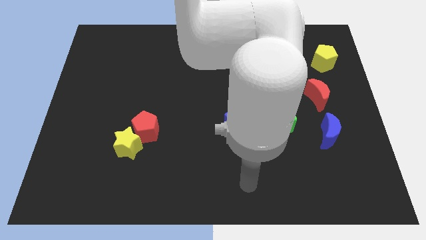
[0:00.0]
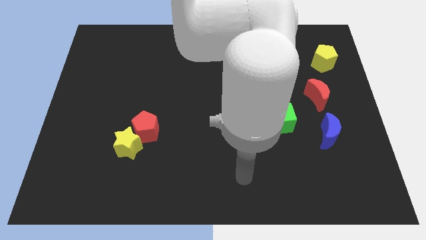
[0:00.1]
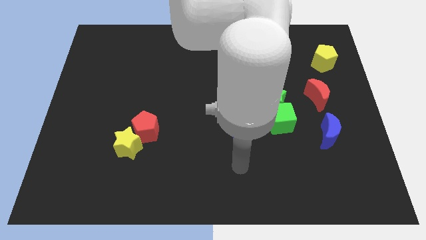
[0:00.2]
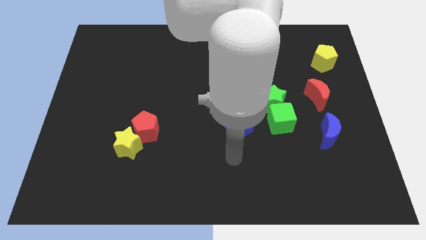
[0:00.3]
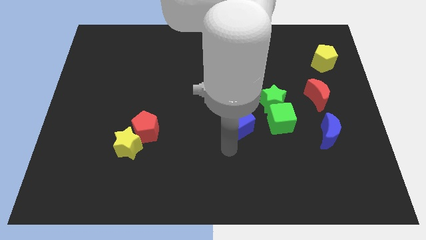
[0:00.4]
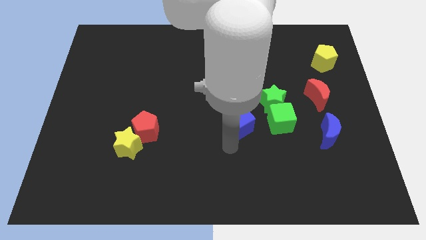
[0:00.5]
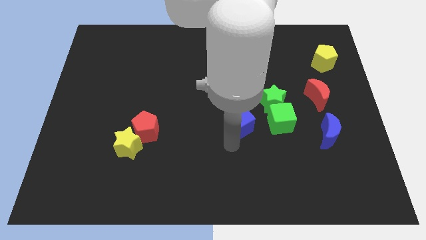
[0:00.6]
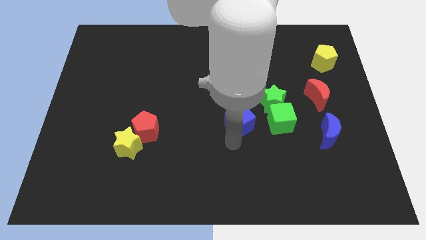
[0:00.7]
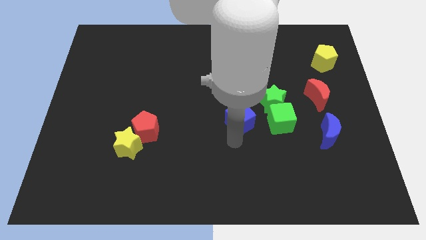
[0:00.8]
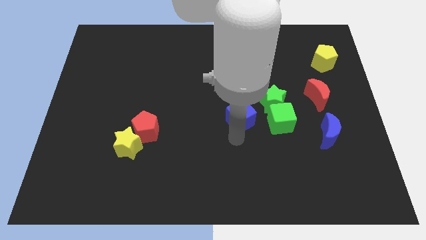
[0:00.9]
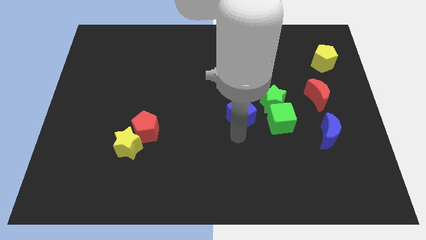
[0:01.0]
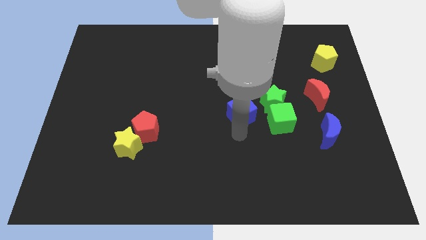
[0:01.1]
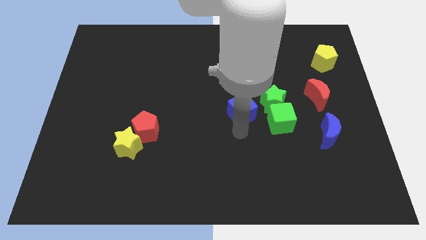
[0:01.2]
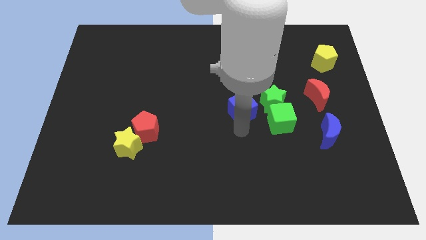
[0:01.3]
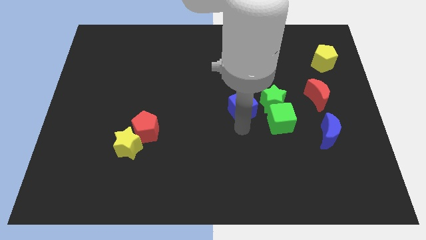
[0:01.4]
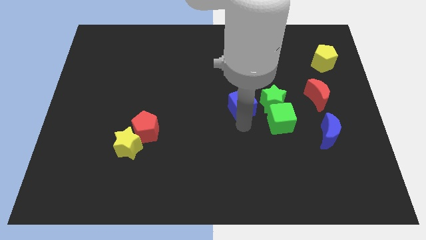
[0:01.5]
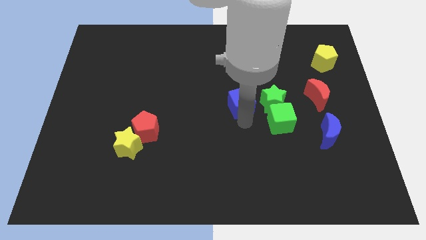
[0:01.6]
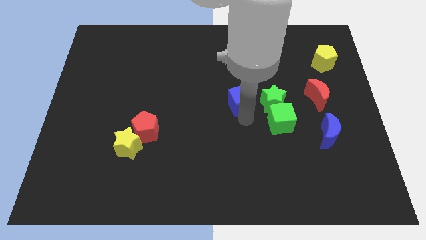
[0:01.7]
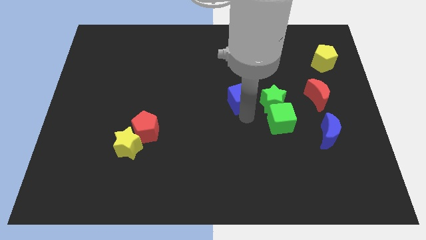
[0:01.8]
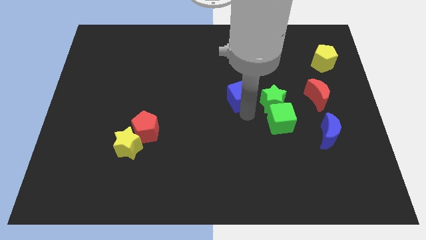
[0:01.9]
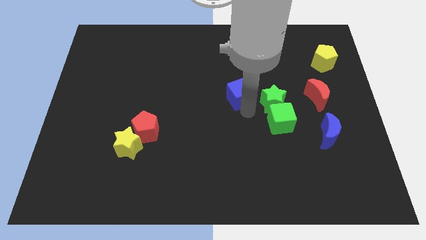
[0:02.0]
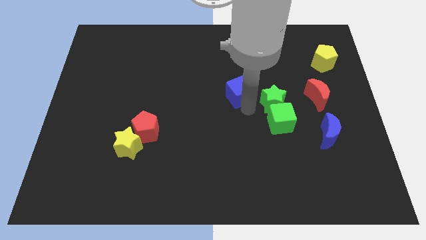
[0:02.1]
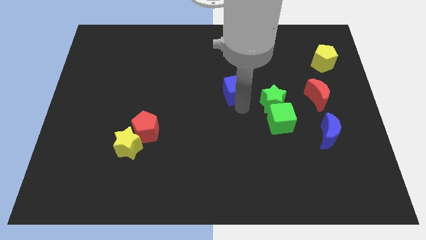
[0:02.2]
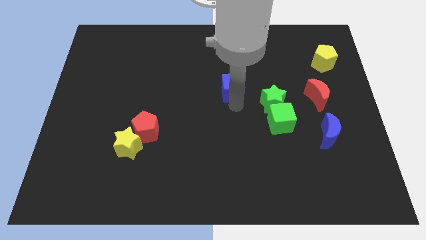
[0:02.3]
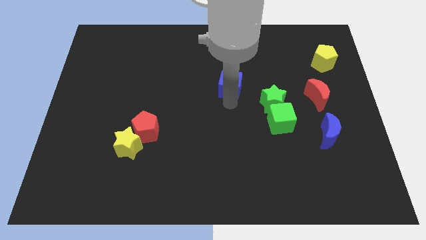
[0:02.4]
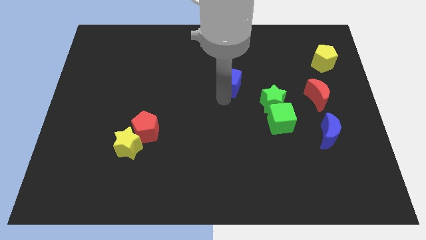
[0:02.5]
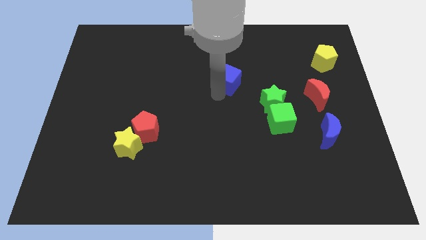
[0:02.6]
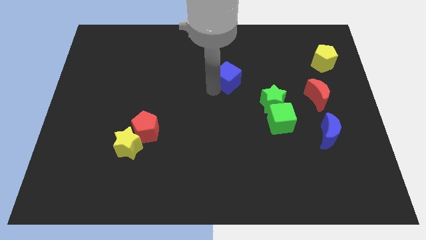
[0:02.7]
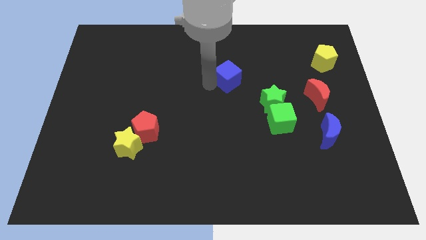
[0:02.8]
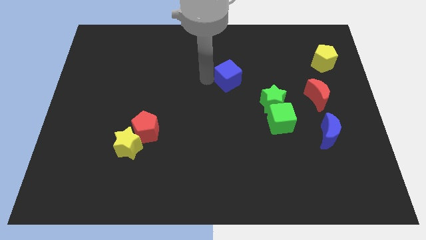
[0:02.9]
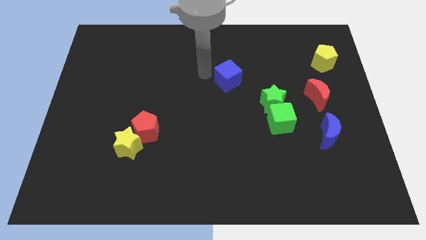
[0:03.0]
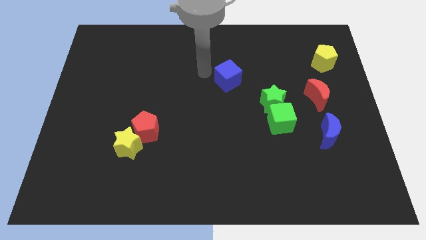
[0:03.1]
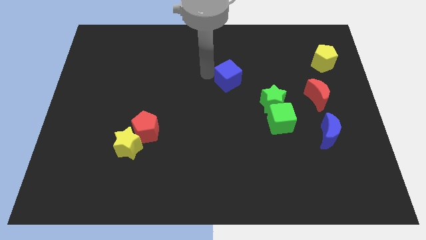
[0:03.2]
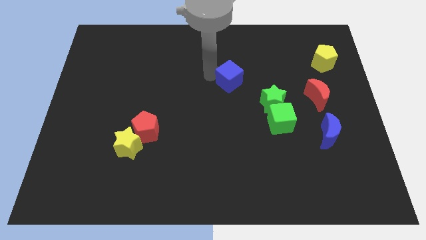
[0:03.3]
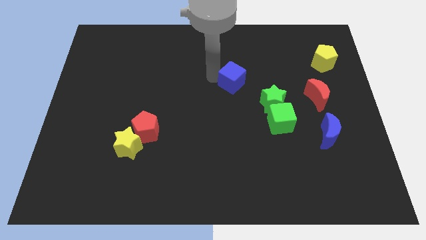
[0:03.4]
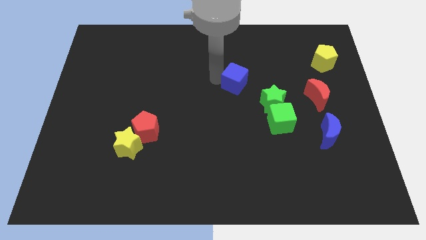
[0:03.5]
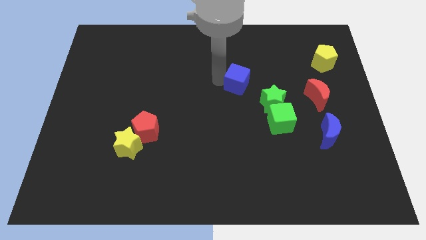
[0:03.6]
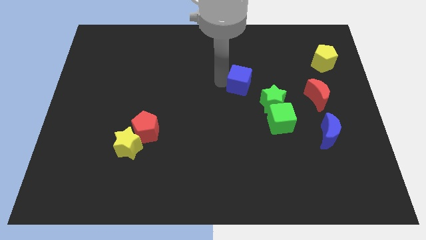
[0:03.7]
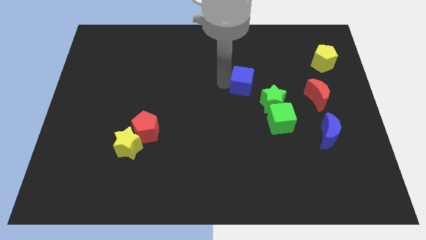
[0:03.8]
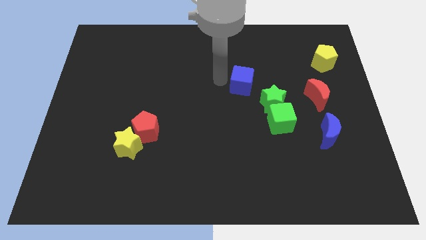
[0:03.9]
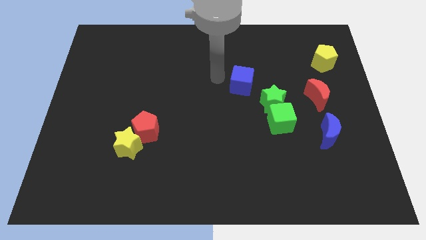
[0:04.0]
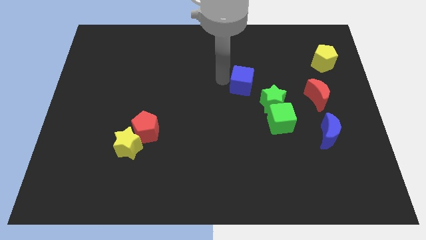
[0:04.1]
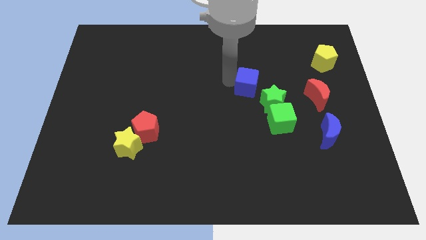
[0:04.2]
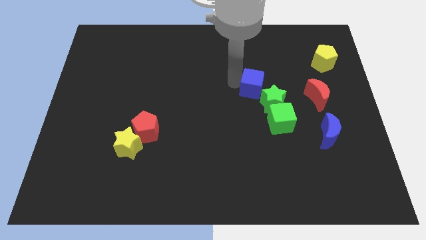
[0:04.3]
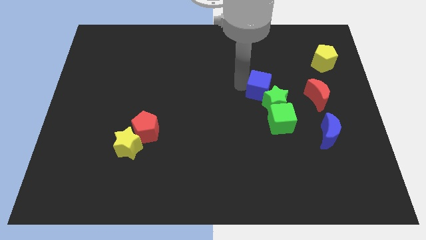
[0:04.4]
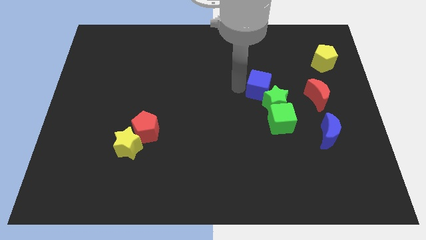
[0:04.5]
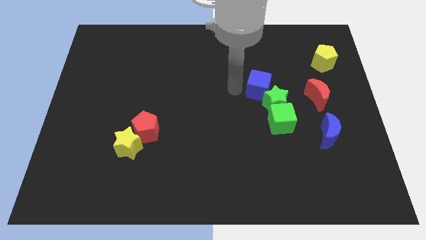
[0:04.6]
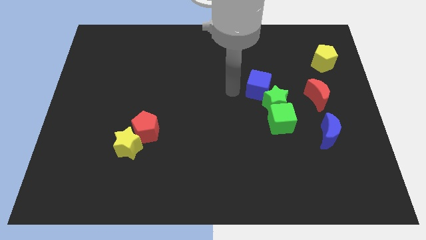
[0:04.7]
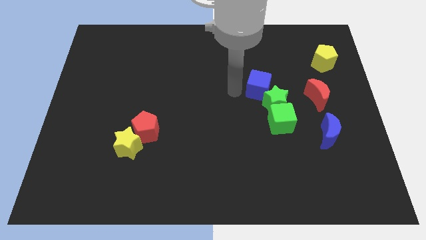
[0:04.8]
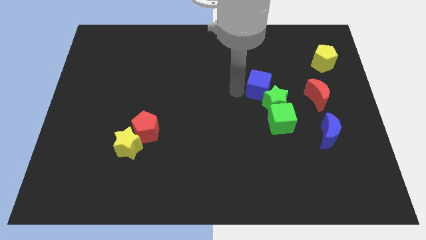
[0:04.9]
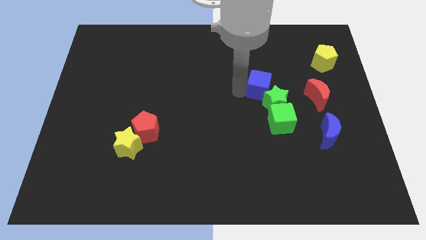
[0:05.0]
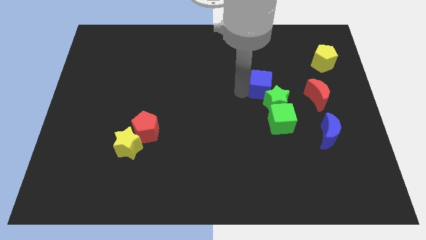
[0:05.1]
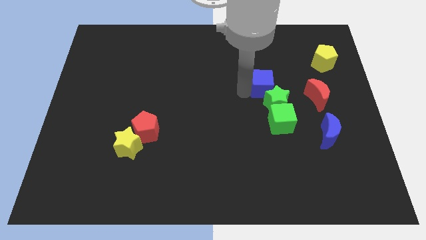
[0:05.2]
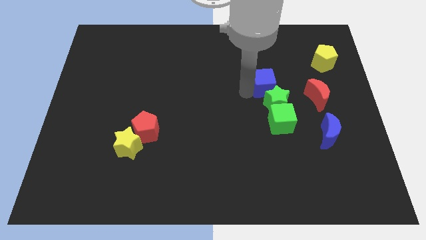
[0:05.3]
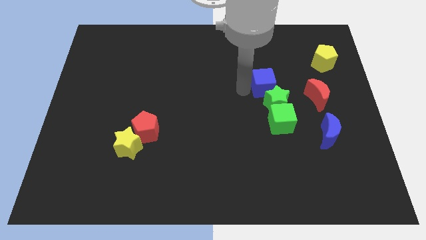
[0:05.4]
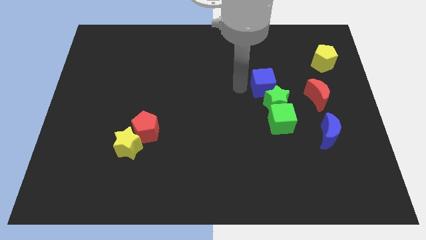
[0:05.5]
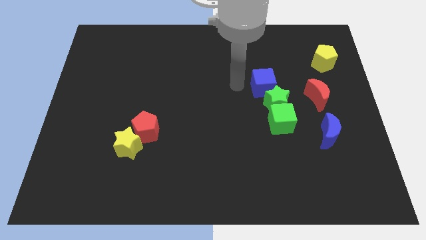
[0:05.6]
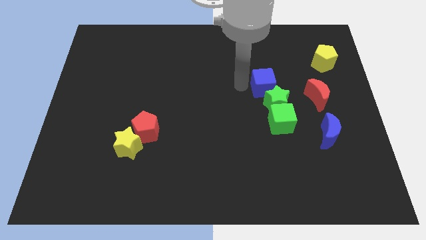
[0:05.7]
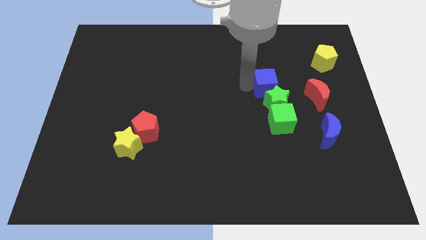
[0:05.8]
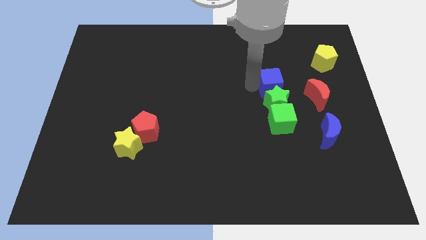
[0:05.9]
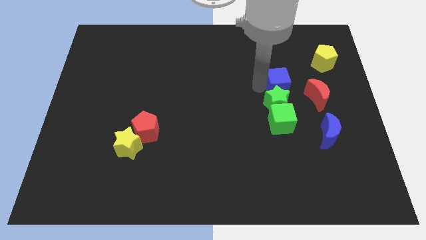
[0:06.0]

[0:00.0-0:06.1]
move the blue cube to the top left side of the red moon

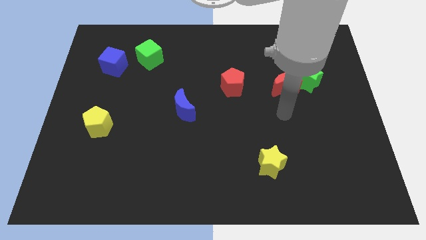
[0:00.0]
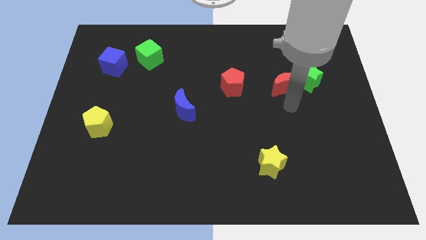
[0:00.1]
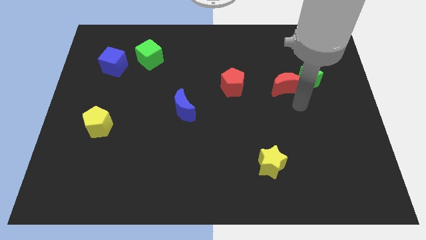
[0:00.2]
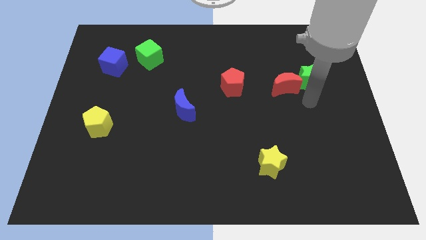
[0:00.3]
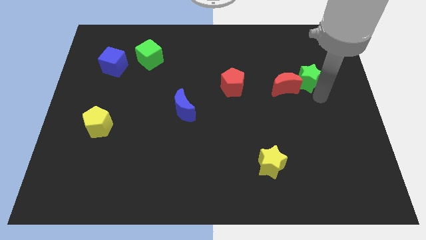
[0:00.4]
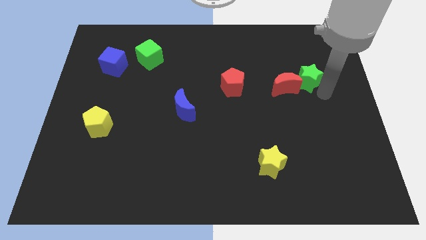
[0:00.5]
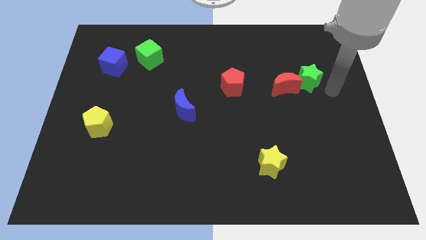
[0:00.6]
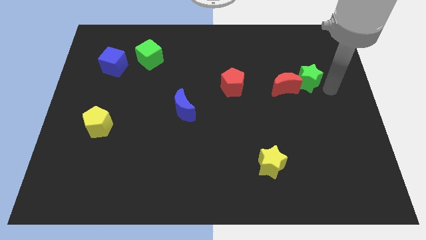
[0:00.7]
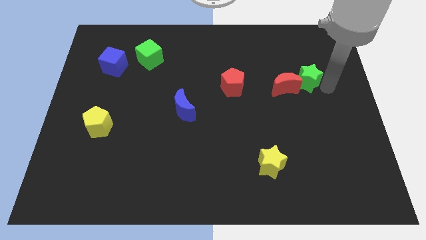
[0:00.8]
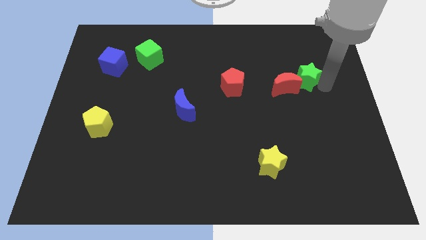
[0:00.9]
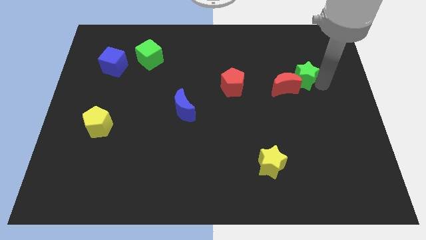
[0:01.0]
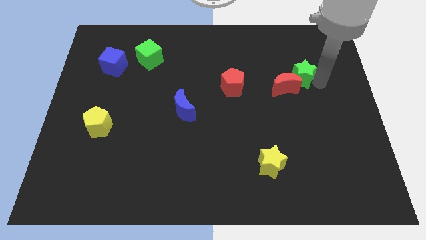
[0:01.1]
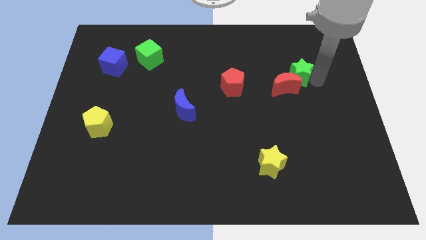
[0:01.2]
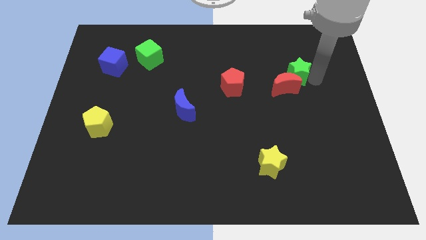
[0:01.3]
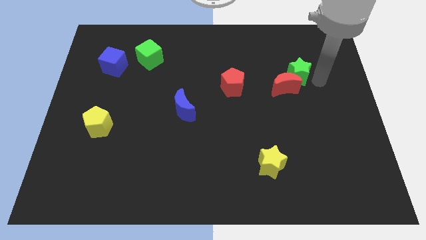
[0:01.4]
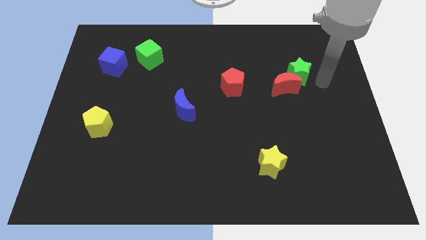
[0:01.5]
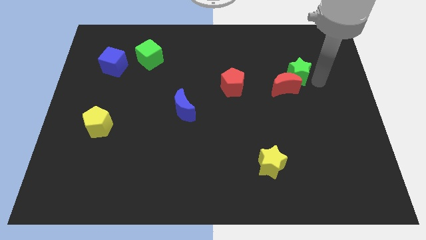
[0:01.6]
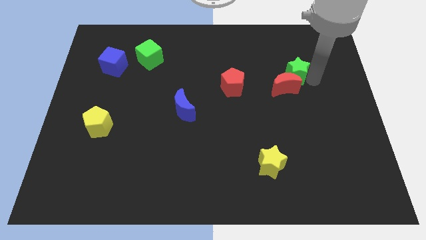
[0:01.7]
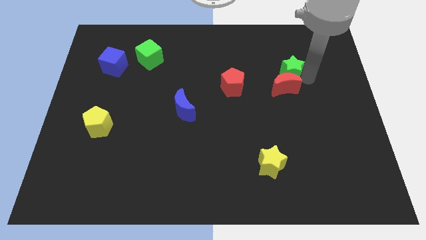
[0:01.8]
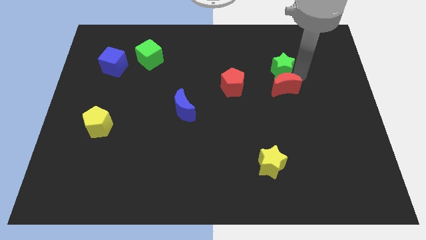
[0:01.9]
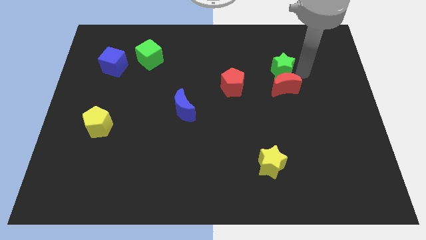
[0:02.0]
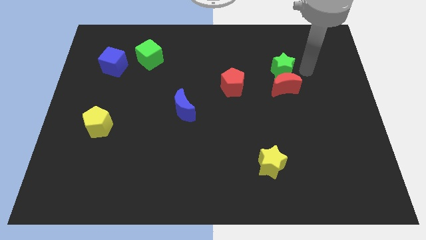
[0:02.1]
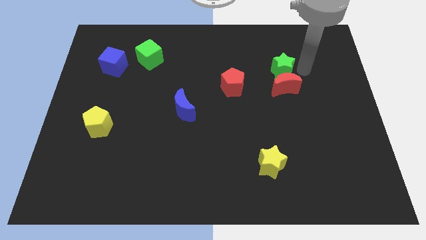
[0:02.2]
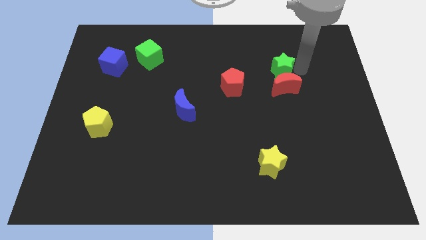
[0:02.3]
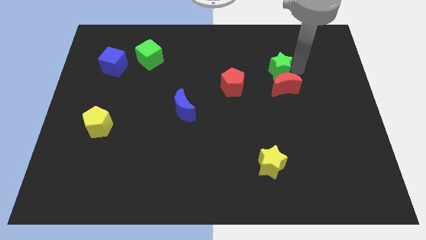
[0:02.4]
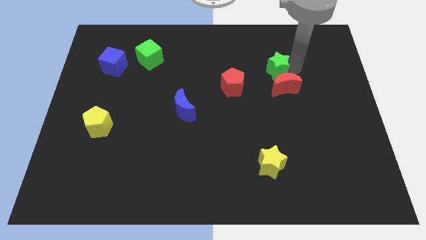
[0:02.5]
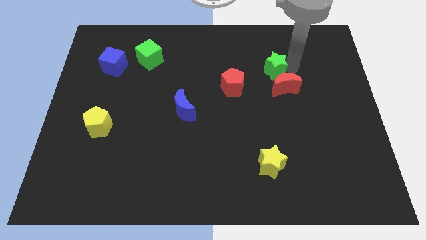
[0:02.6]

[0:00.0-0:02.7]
push the green star to the top right of the red pentagon
